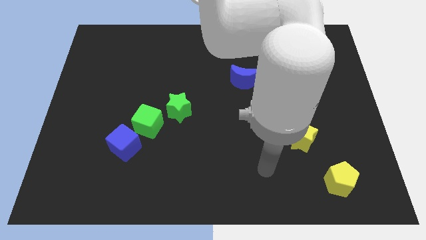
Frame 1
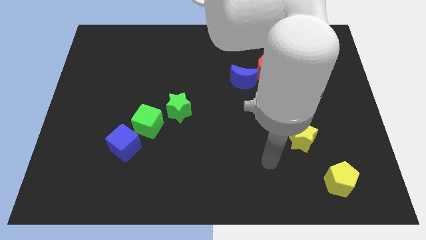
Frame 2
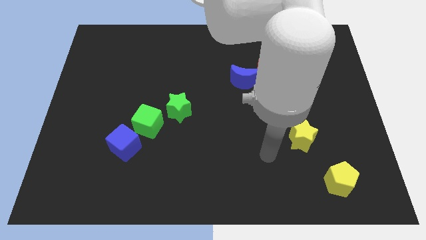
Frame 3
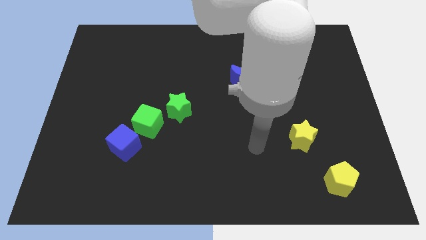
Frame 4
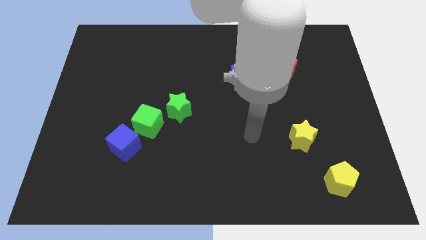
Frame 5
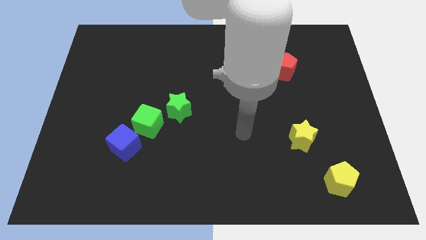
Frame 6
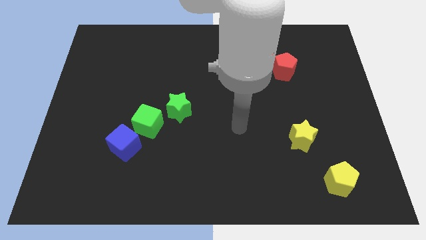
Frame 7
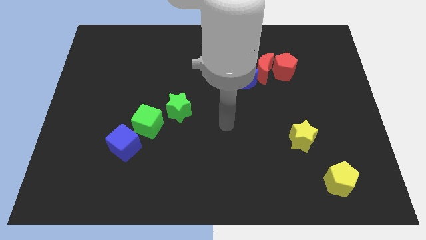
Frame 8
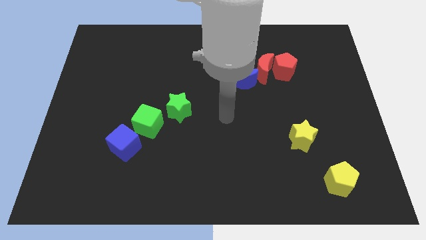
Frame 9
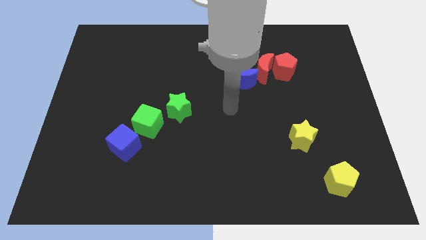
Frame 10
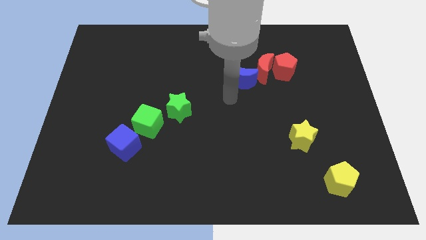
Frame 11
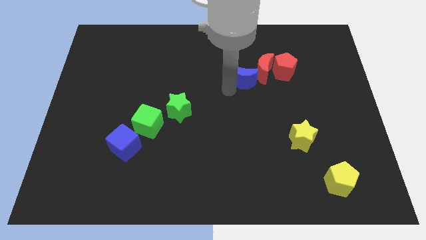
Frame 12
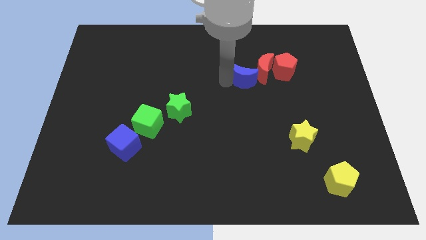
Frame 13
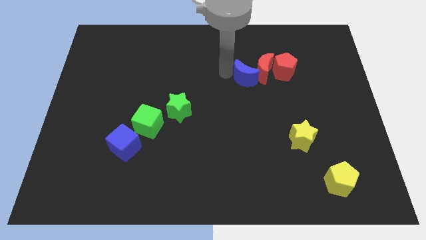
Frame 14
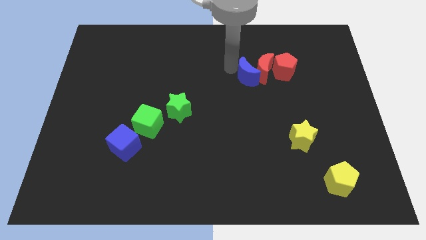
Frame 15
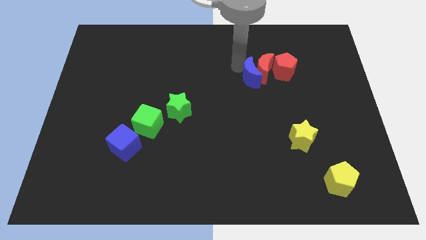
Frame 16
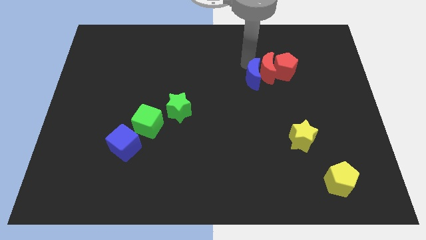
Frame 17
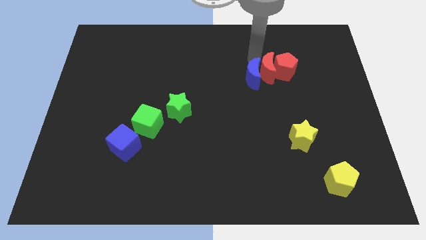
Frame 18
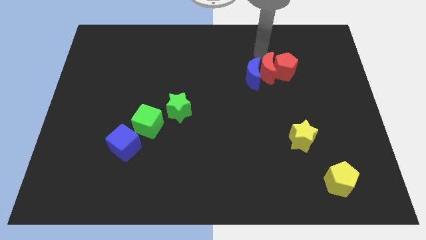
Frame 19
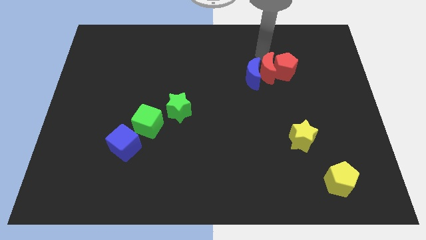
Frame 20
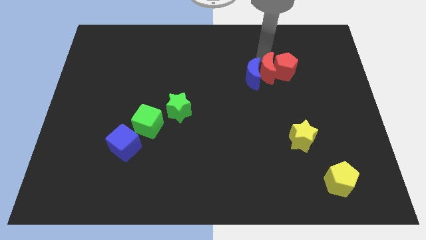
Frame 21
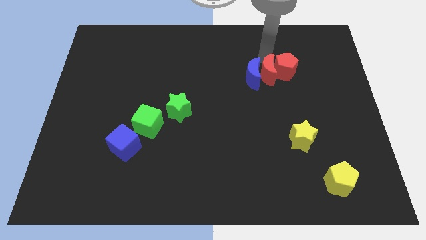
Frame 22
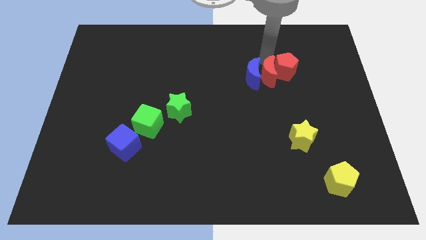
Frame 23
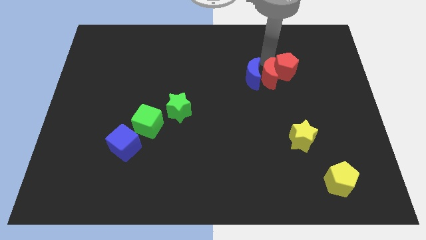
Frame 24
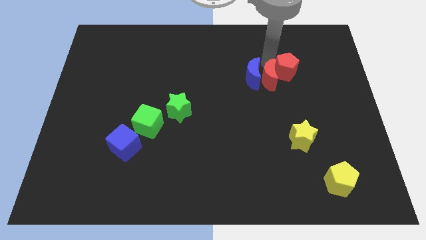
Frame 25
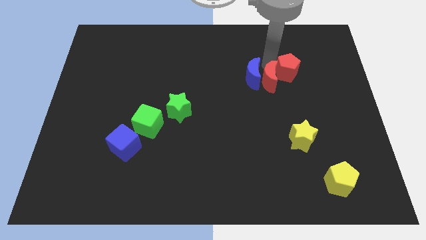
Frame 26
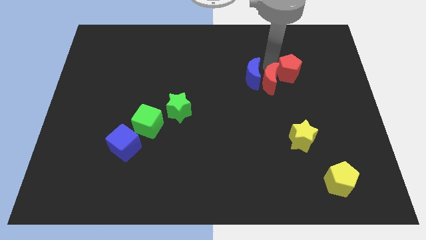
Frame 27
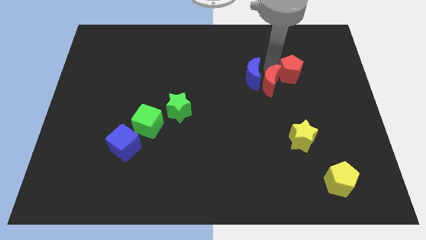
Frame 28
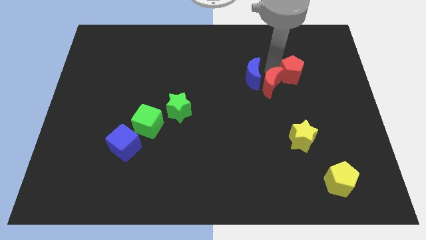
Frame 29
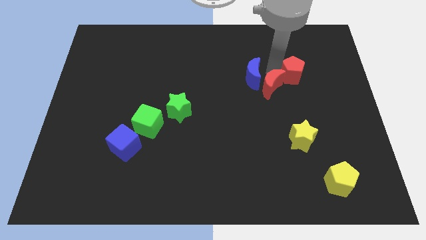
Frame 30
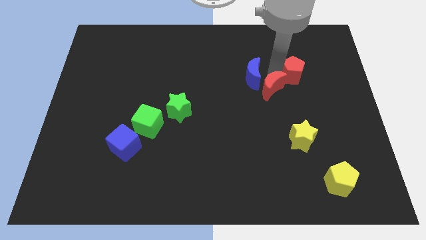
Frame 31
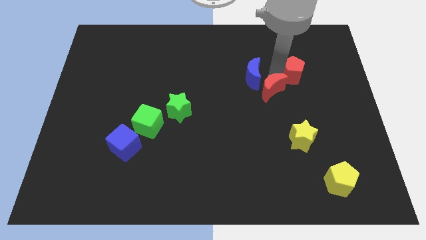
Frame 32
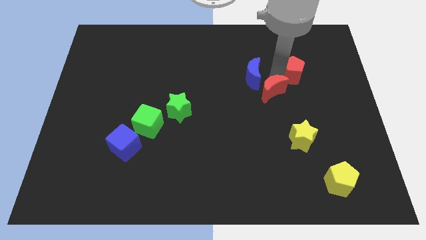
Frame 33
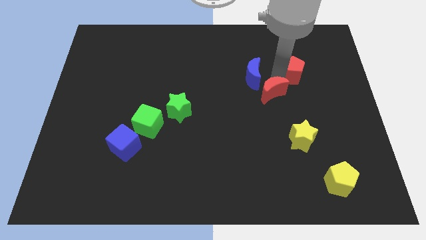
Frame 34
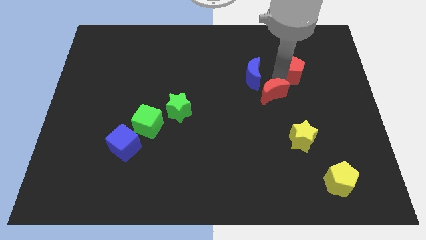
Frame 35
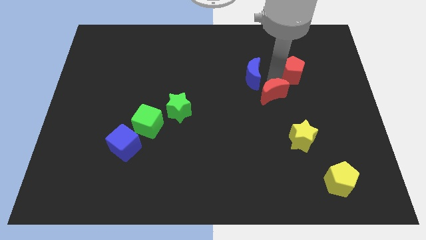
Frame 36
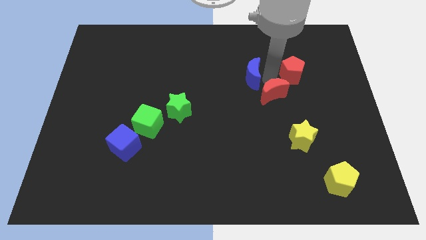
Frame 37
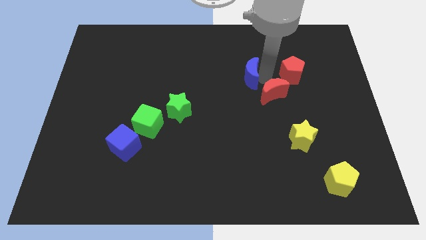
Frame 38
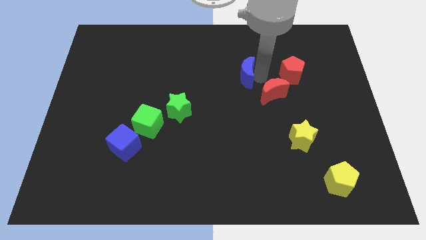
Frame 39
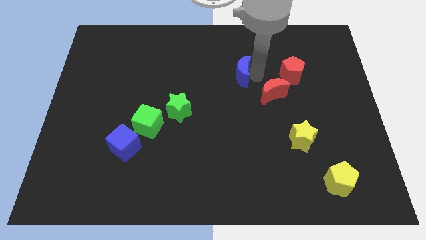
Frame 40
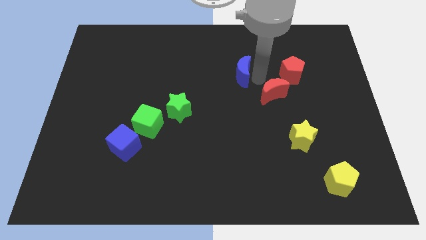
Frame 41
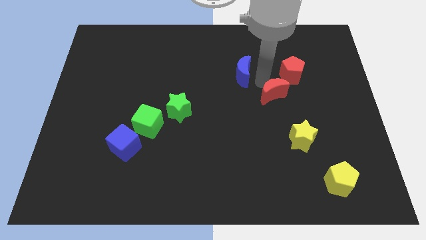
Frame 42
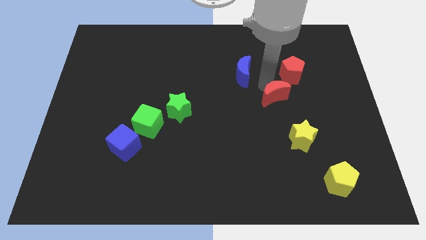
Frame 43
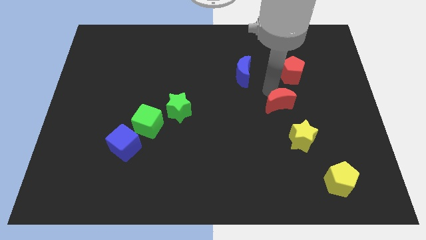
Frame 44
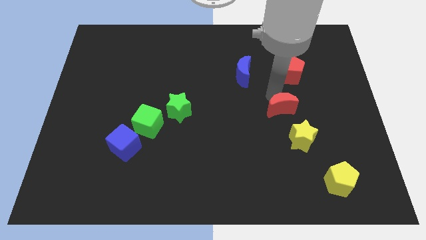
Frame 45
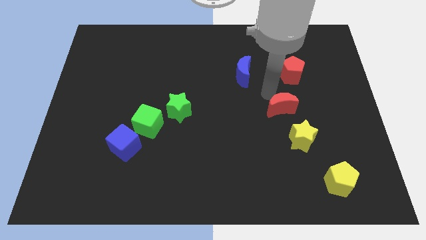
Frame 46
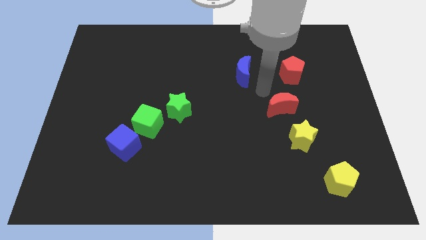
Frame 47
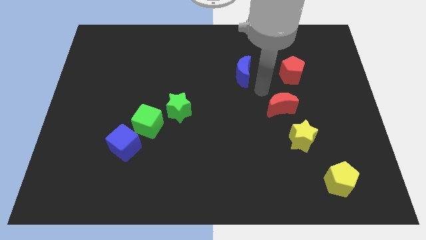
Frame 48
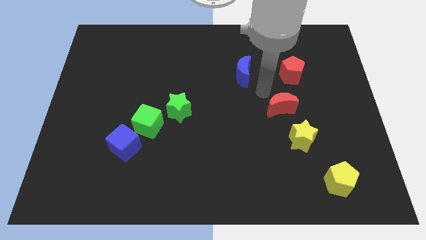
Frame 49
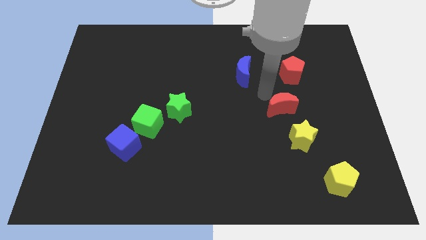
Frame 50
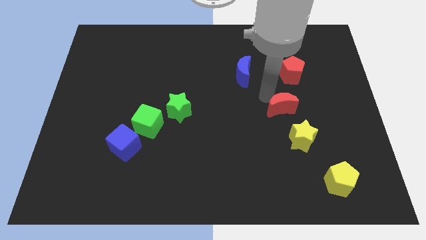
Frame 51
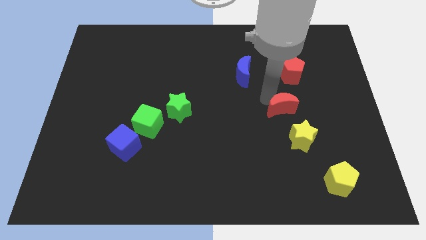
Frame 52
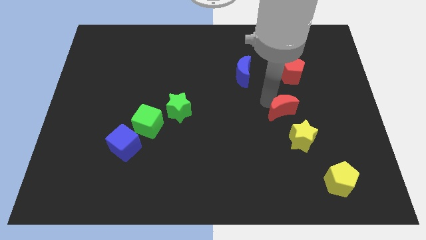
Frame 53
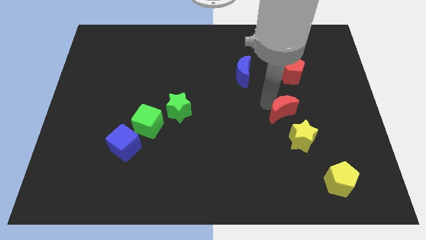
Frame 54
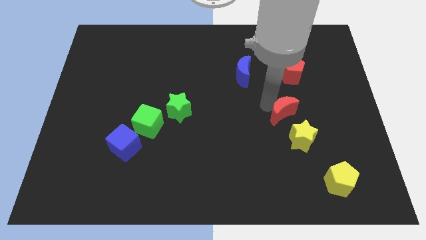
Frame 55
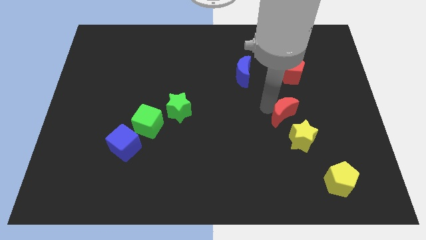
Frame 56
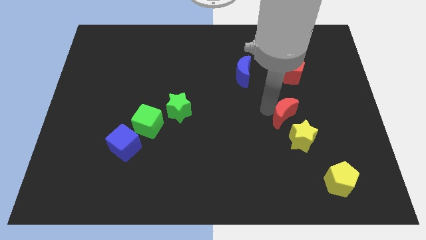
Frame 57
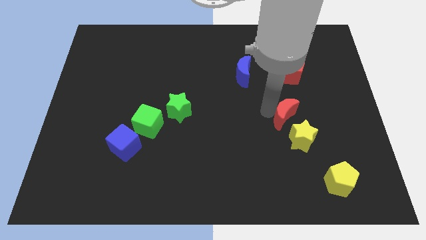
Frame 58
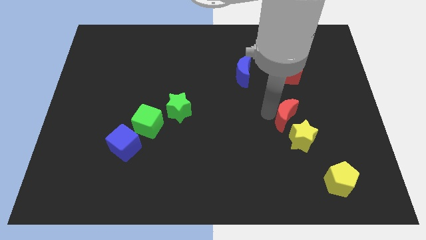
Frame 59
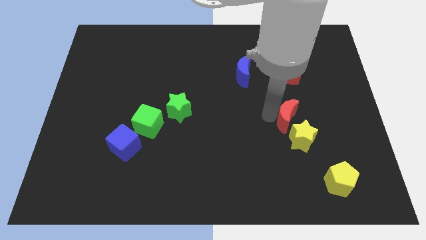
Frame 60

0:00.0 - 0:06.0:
move the red moon towards the yellow star

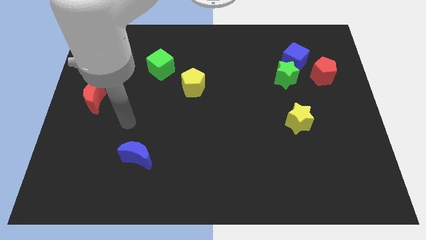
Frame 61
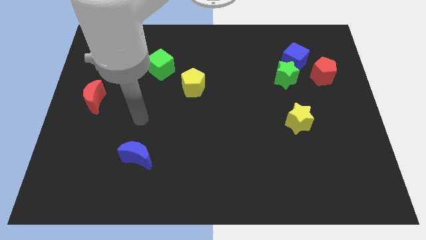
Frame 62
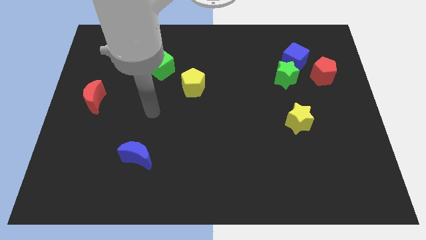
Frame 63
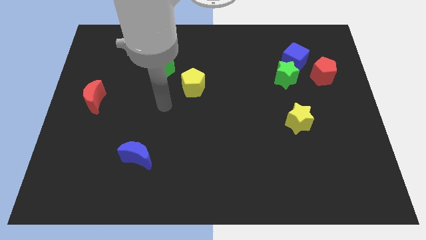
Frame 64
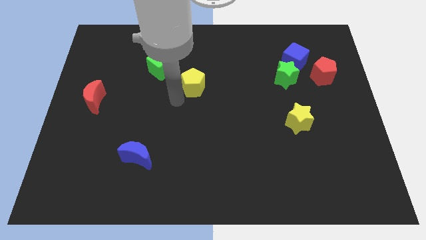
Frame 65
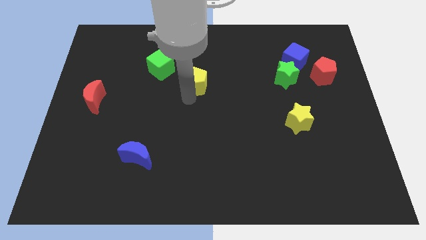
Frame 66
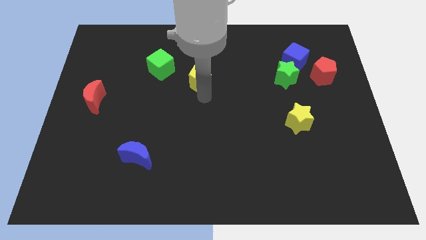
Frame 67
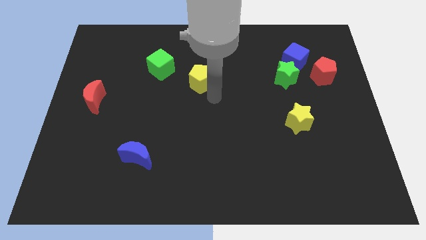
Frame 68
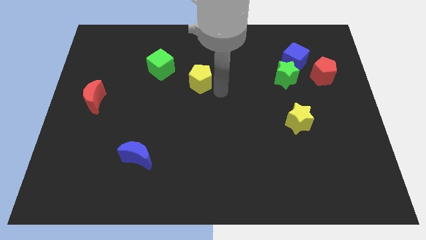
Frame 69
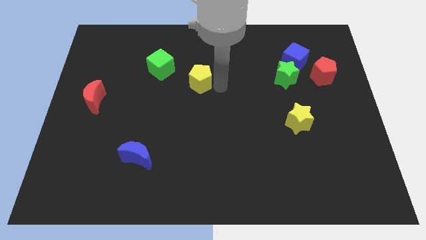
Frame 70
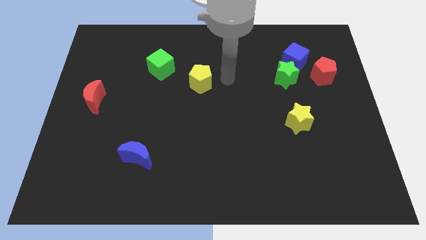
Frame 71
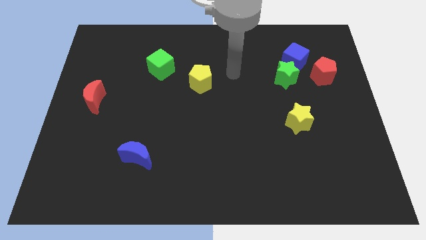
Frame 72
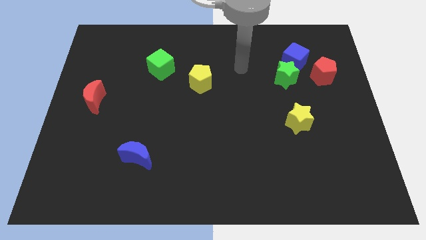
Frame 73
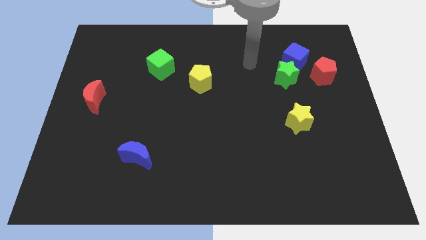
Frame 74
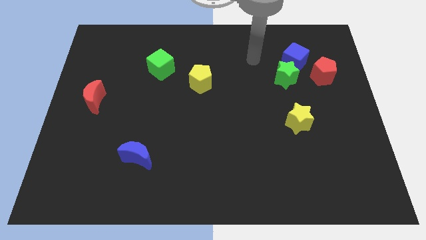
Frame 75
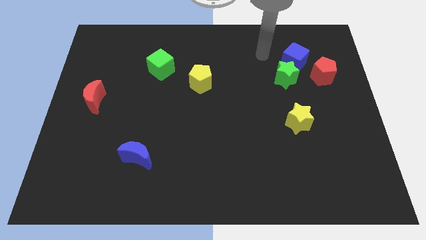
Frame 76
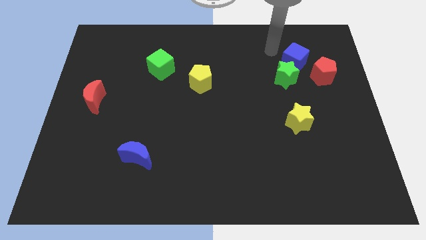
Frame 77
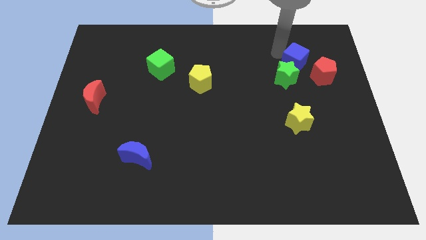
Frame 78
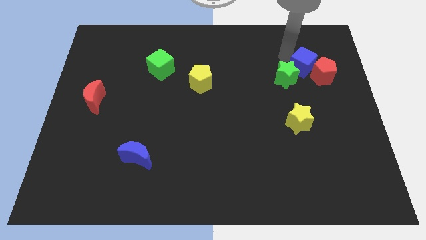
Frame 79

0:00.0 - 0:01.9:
put the blue cube to the red pentagon
